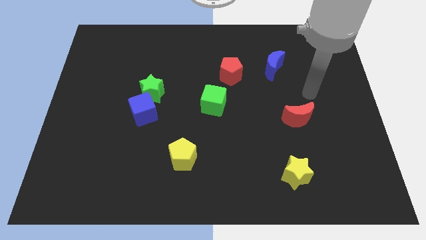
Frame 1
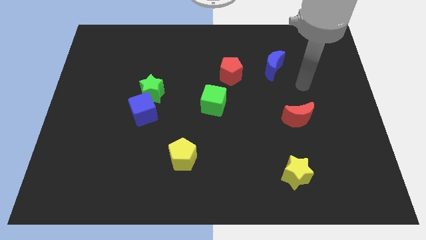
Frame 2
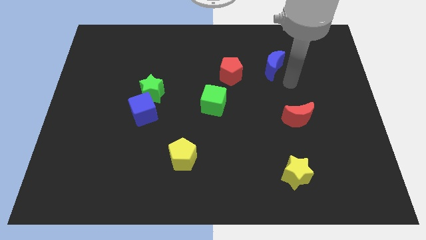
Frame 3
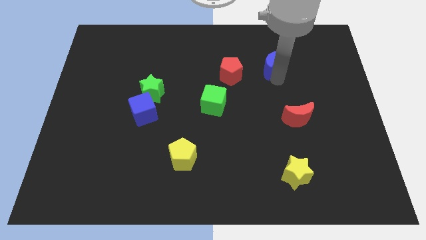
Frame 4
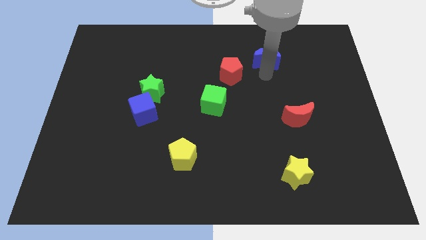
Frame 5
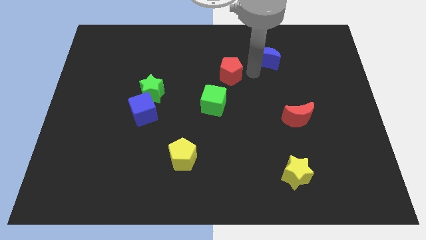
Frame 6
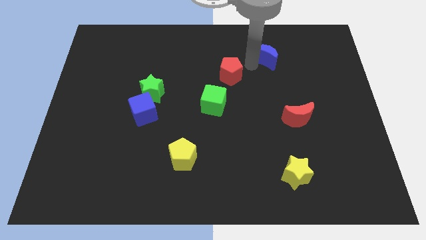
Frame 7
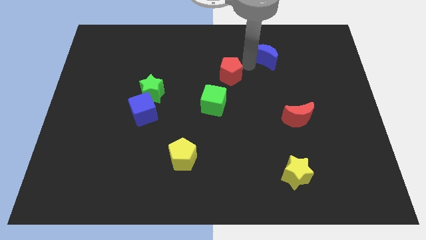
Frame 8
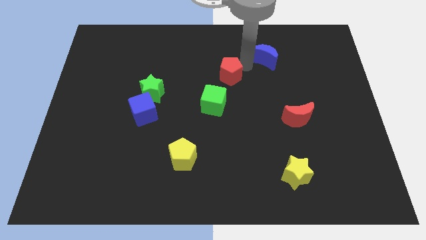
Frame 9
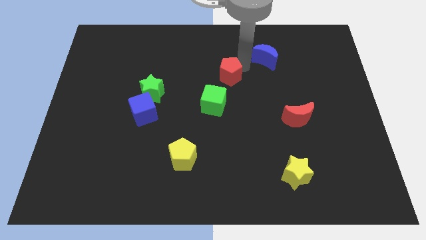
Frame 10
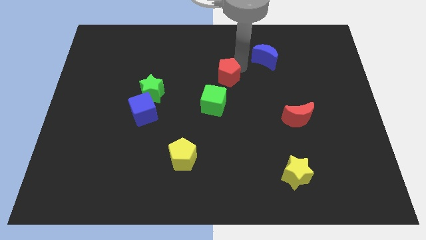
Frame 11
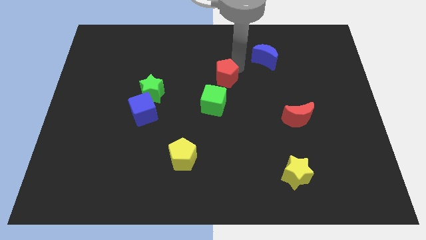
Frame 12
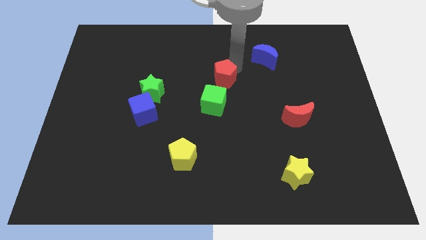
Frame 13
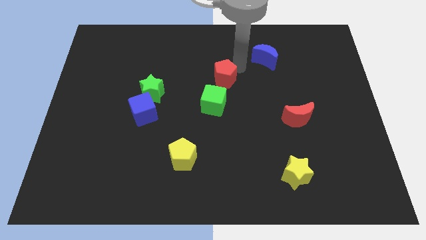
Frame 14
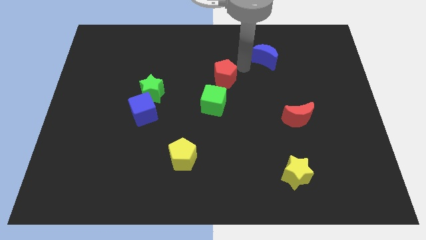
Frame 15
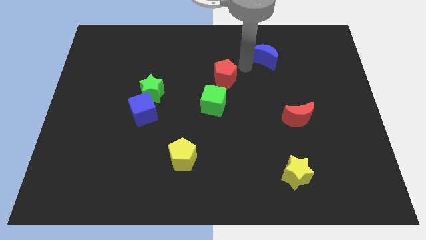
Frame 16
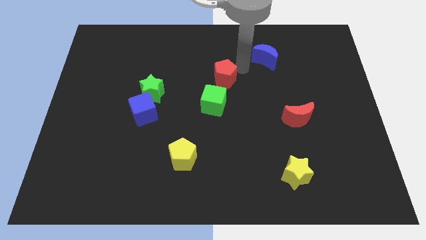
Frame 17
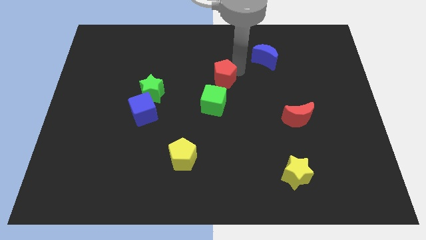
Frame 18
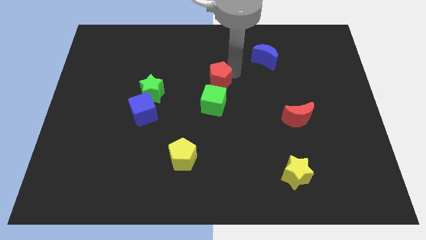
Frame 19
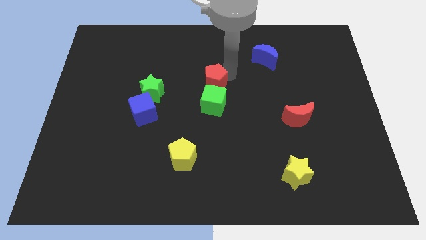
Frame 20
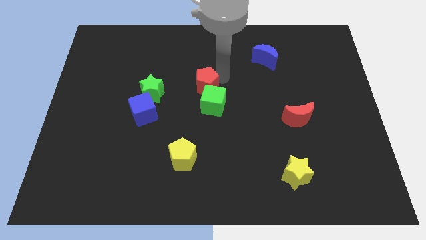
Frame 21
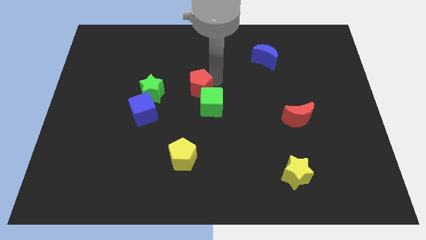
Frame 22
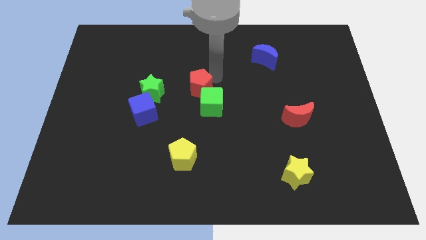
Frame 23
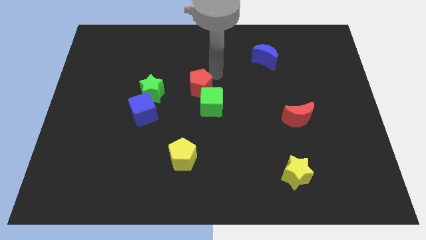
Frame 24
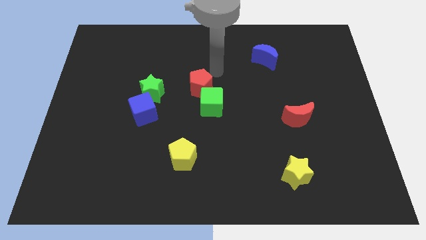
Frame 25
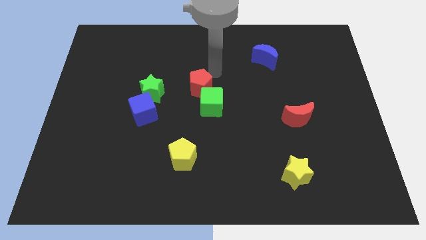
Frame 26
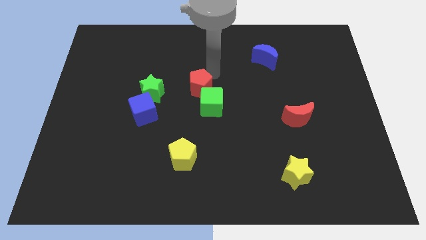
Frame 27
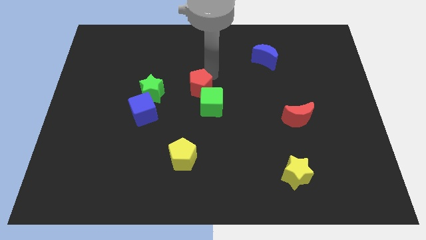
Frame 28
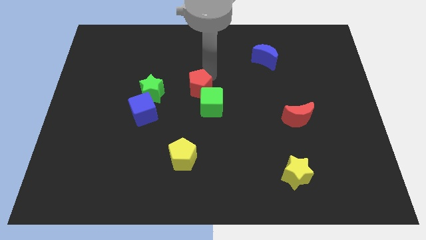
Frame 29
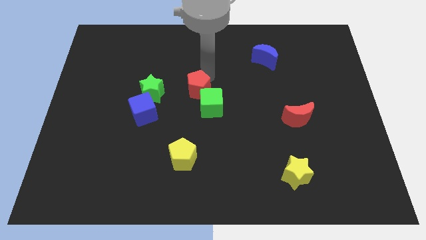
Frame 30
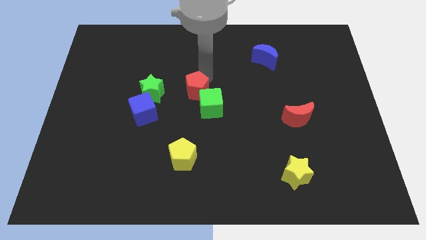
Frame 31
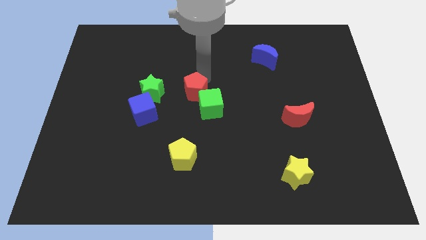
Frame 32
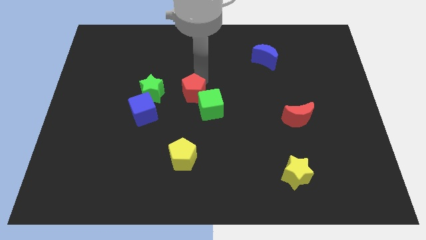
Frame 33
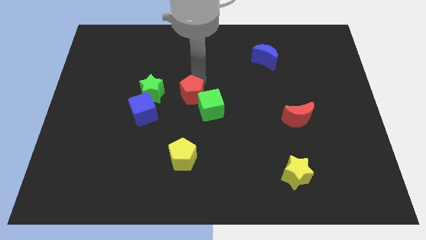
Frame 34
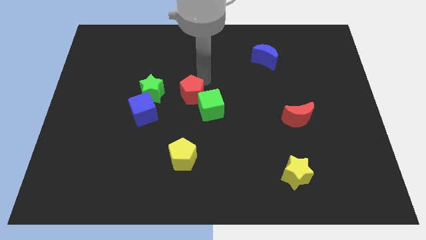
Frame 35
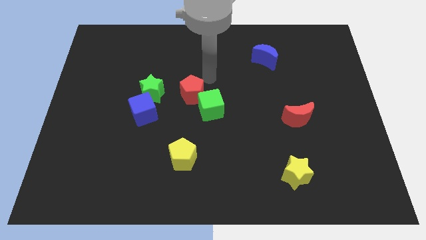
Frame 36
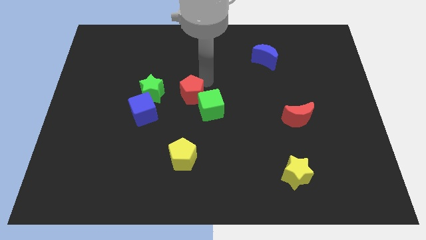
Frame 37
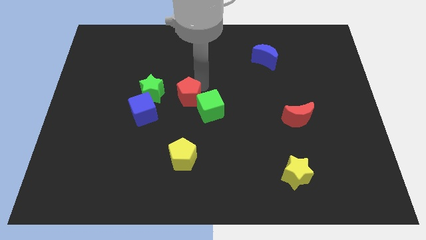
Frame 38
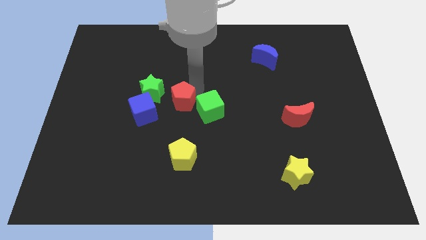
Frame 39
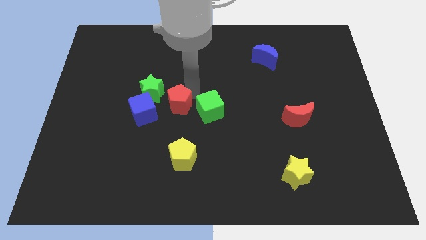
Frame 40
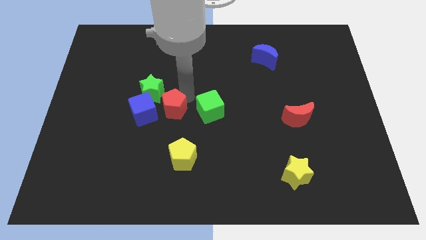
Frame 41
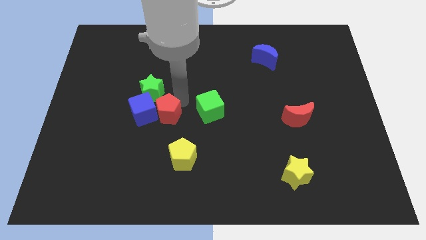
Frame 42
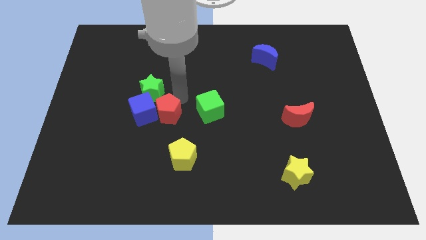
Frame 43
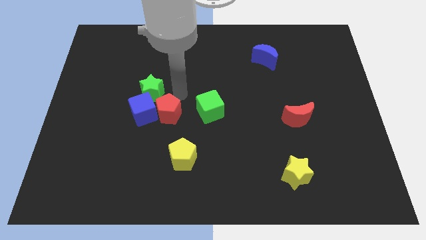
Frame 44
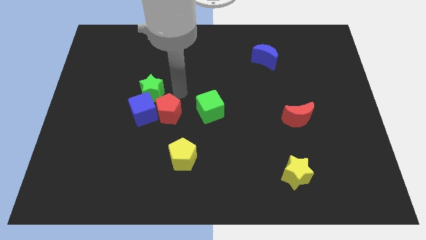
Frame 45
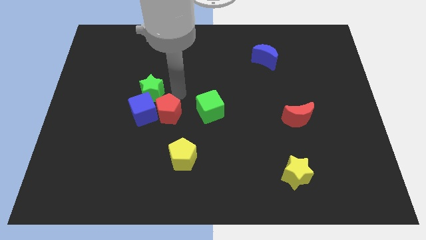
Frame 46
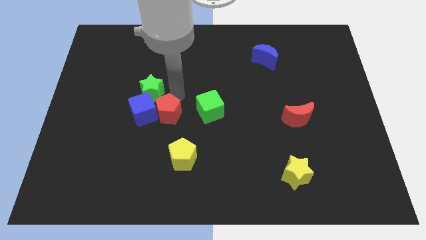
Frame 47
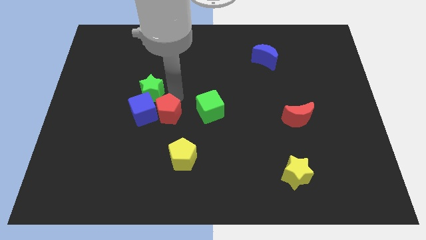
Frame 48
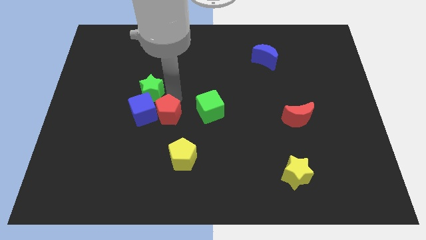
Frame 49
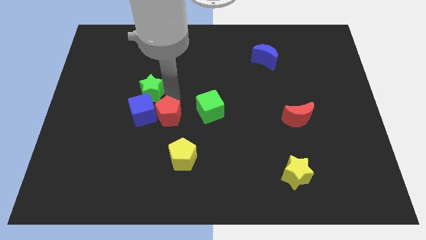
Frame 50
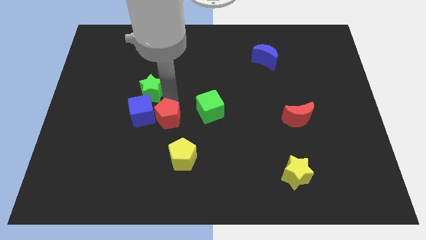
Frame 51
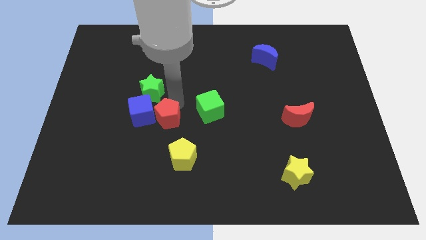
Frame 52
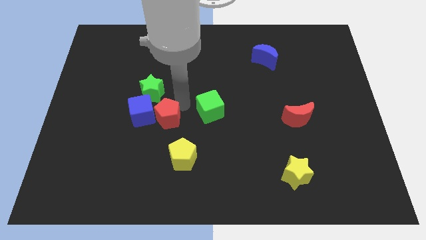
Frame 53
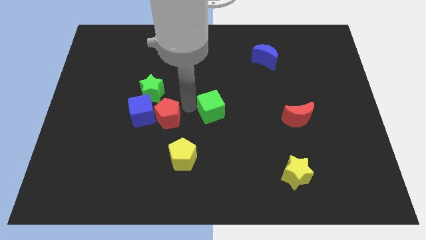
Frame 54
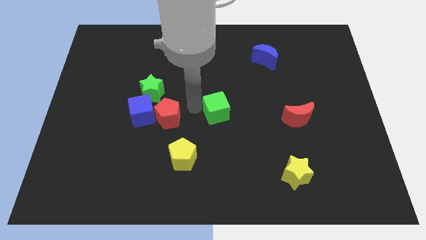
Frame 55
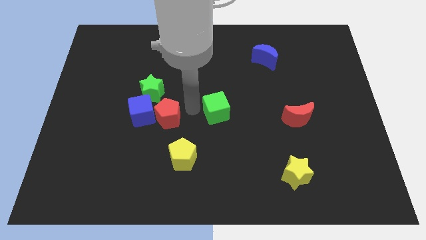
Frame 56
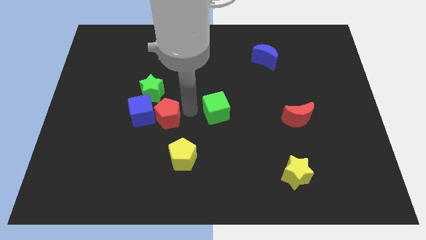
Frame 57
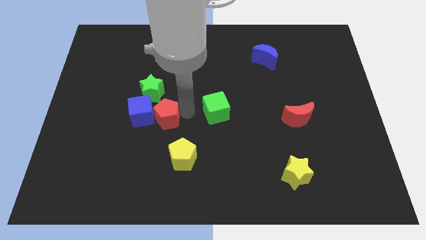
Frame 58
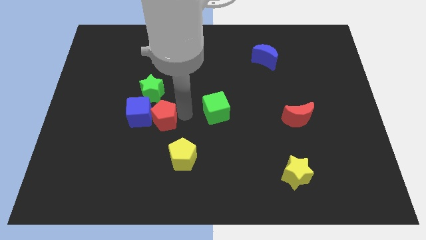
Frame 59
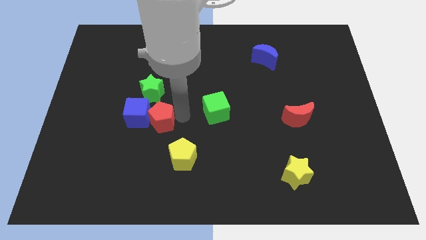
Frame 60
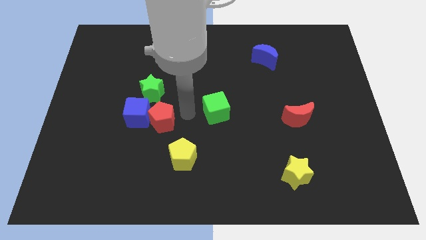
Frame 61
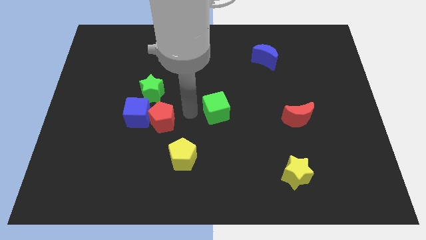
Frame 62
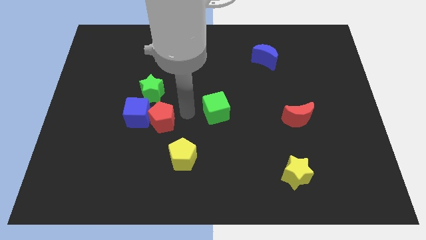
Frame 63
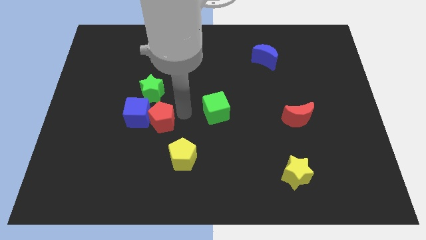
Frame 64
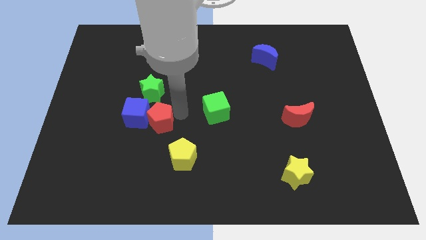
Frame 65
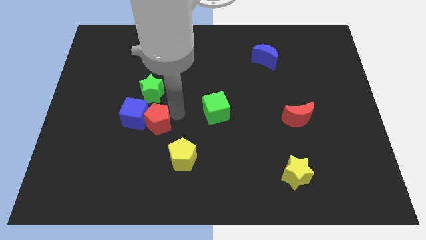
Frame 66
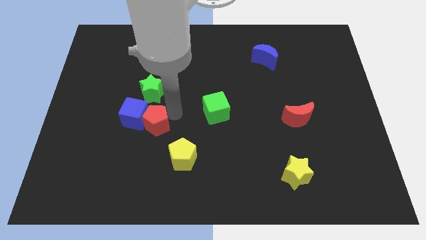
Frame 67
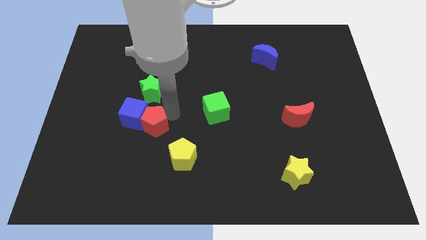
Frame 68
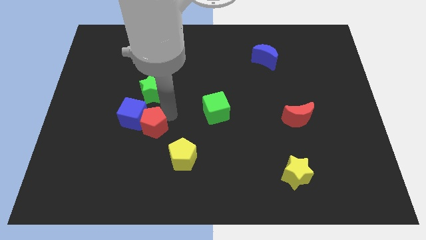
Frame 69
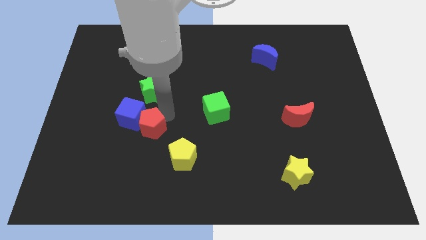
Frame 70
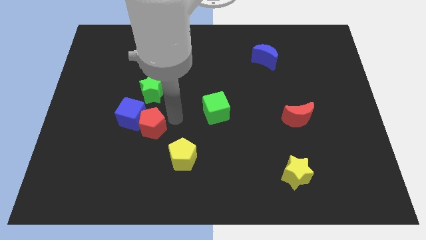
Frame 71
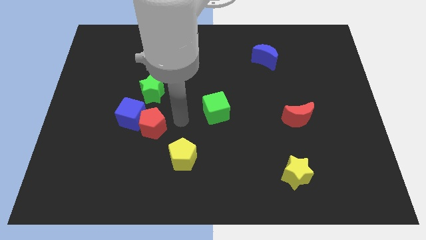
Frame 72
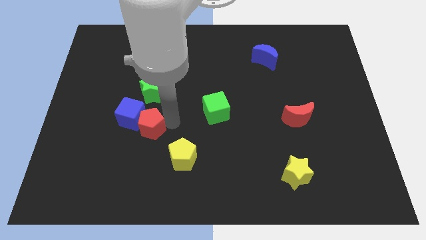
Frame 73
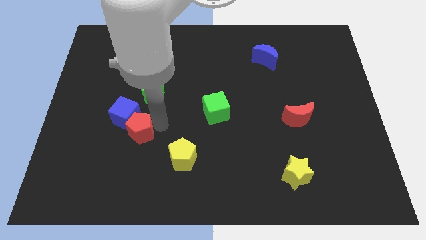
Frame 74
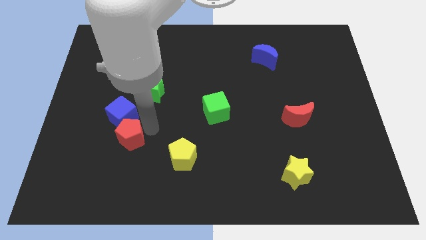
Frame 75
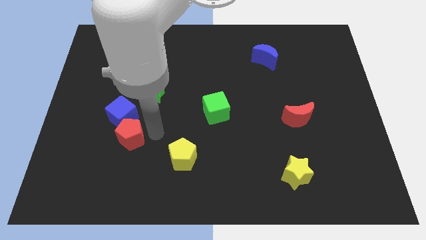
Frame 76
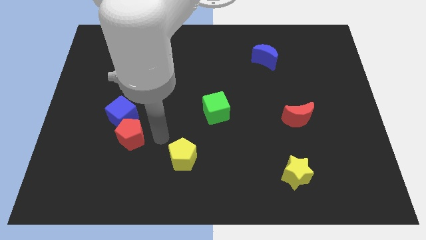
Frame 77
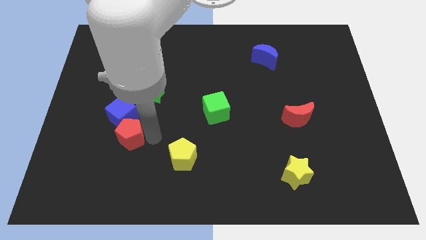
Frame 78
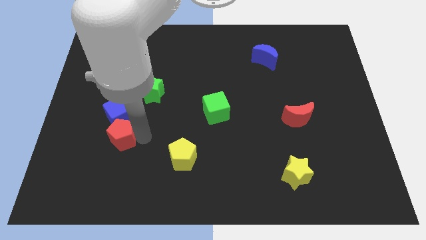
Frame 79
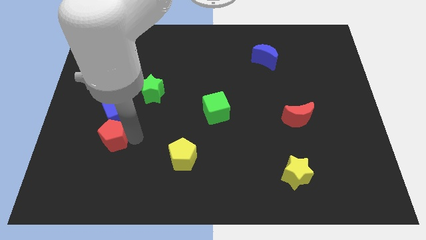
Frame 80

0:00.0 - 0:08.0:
put the red pentagon to the bottom left side of the blue cube

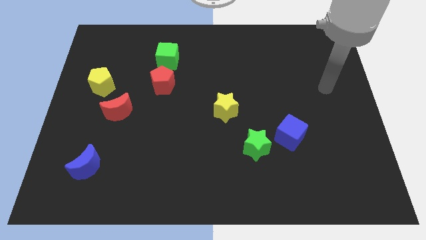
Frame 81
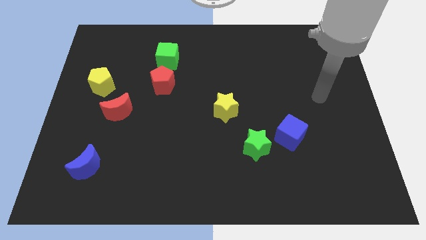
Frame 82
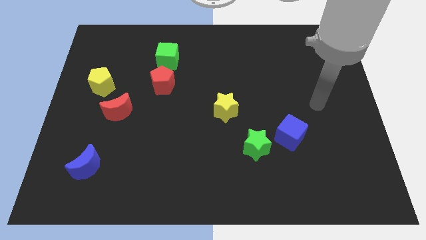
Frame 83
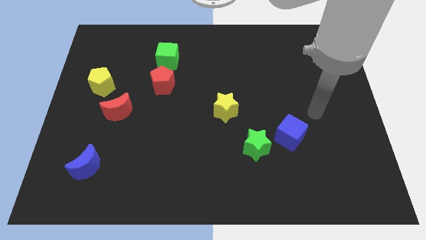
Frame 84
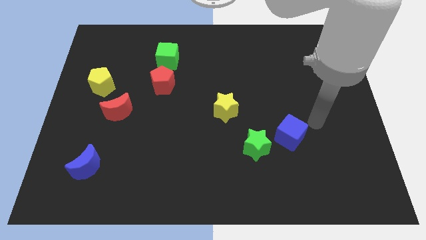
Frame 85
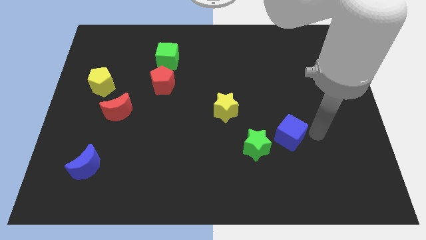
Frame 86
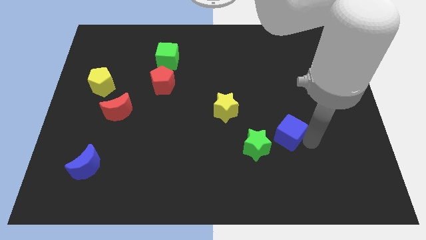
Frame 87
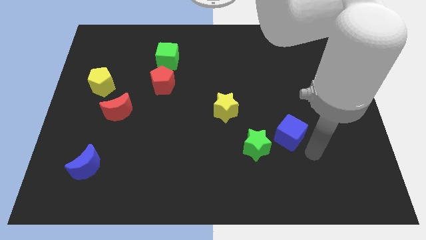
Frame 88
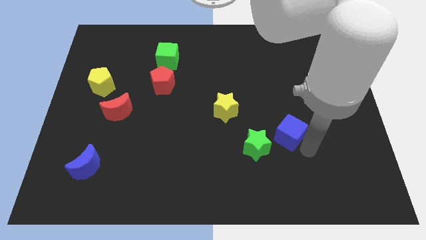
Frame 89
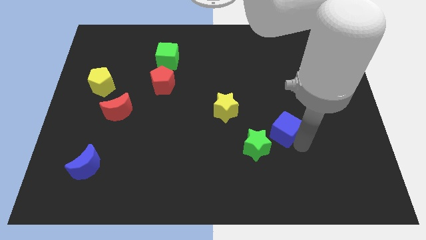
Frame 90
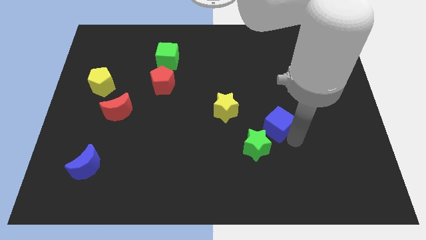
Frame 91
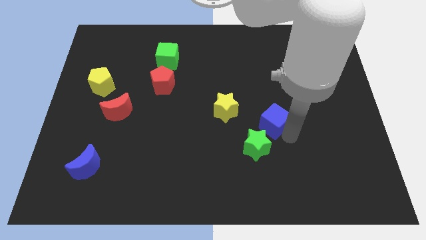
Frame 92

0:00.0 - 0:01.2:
push the blue cube to the top side of the green star
